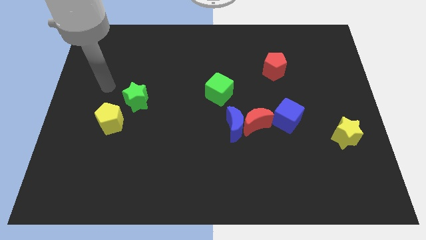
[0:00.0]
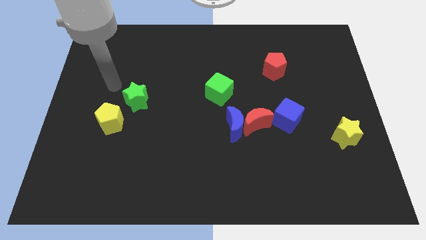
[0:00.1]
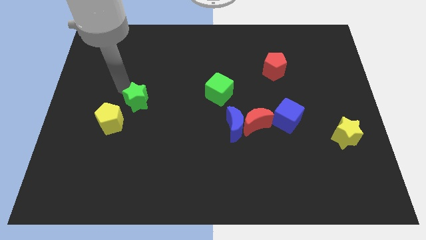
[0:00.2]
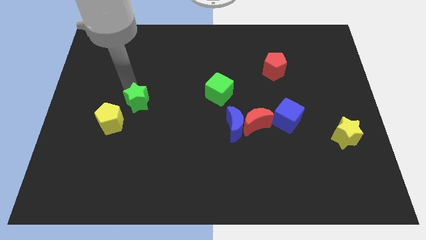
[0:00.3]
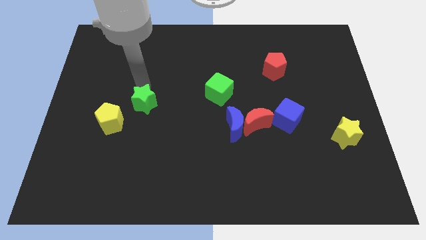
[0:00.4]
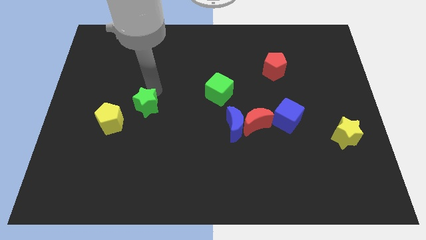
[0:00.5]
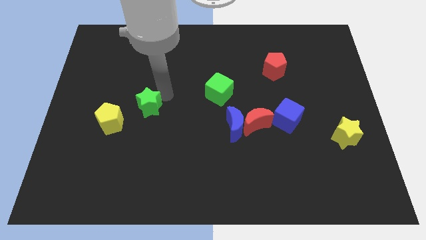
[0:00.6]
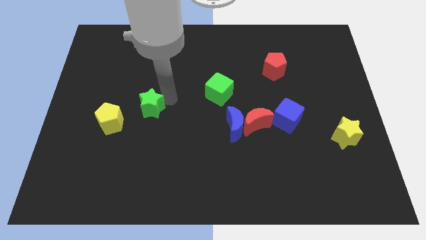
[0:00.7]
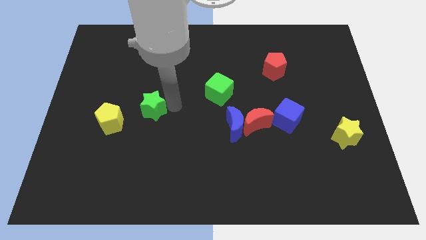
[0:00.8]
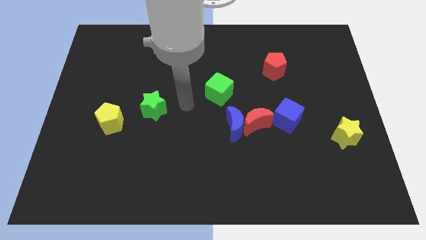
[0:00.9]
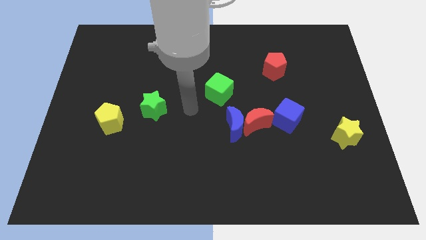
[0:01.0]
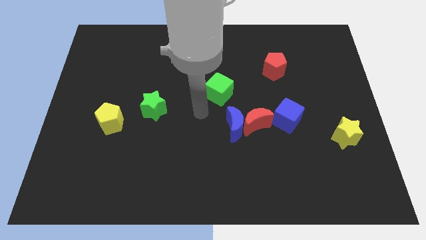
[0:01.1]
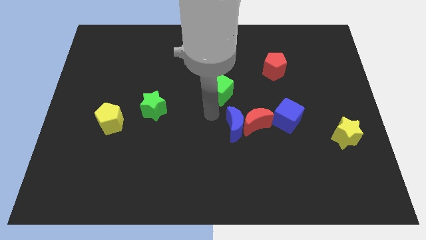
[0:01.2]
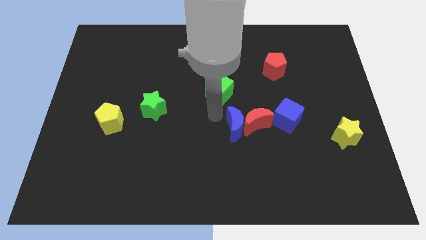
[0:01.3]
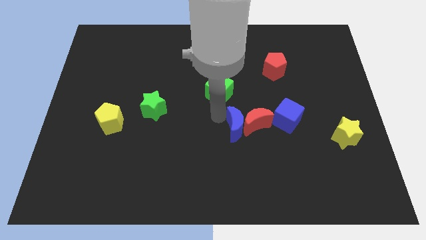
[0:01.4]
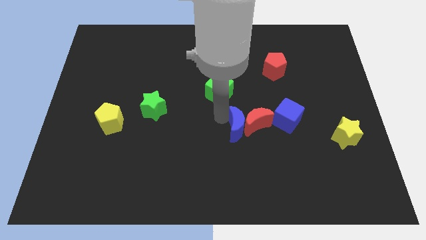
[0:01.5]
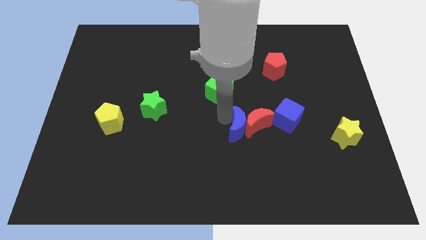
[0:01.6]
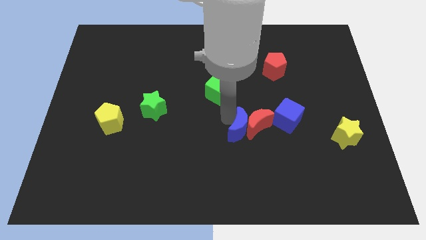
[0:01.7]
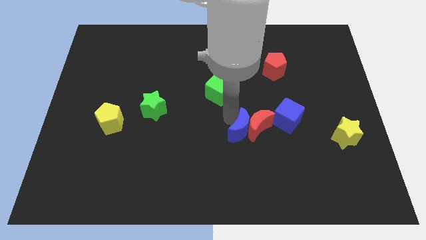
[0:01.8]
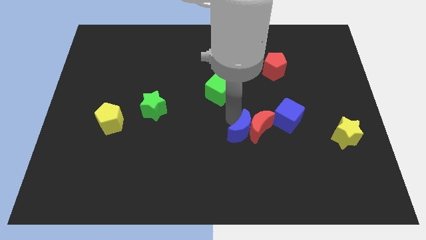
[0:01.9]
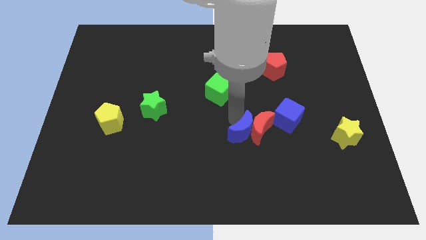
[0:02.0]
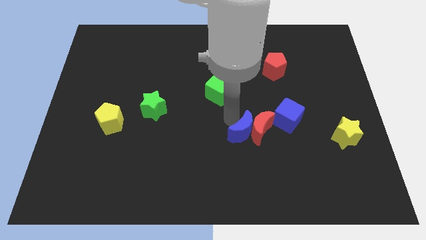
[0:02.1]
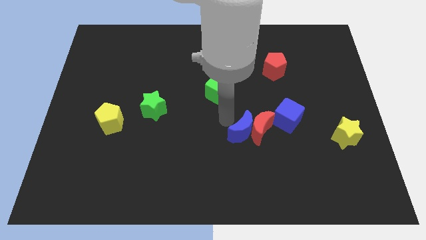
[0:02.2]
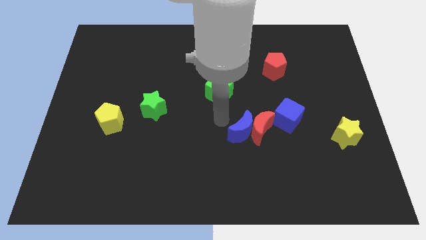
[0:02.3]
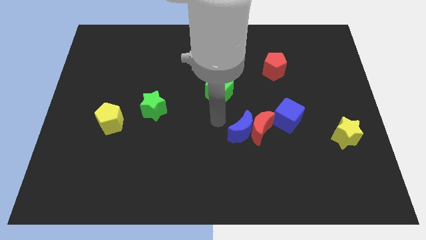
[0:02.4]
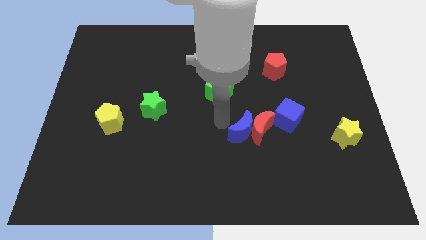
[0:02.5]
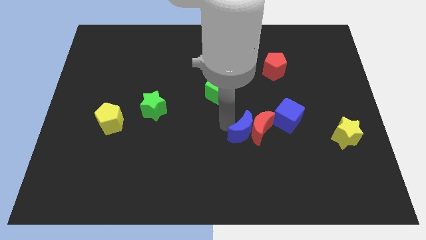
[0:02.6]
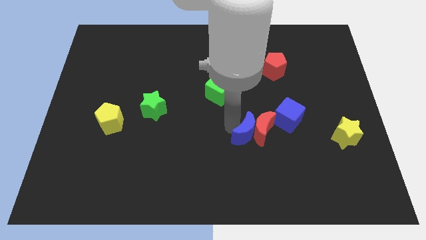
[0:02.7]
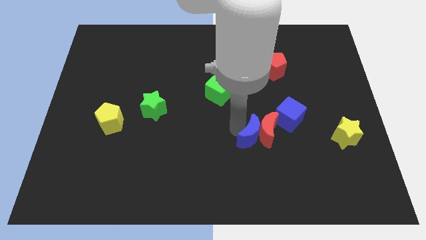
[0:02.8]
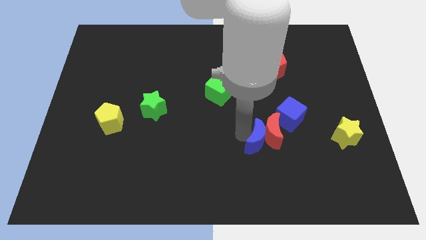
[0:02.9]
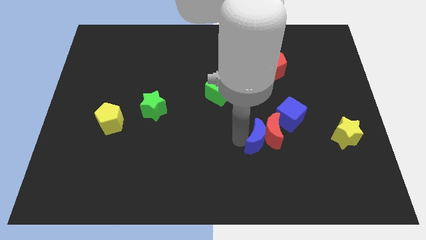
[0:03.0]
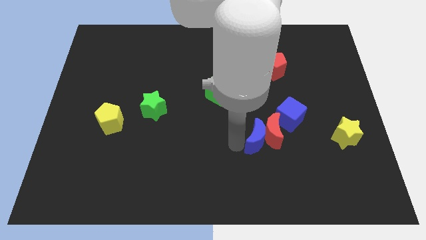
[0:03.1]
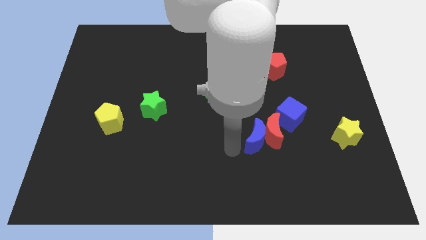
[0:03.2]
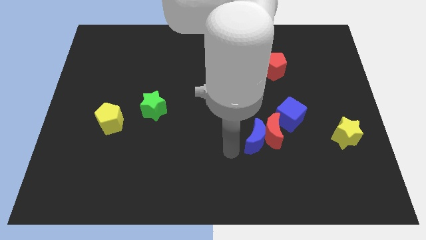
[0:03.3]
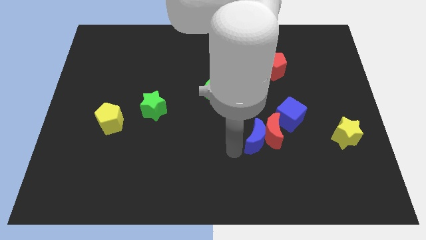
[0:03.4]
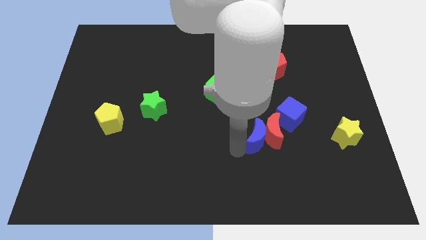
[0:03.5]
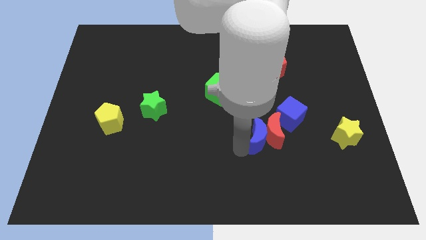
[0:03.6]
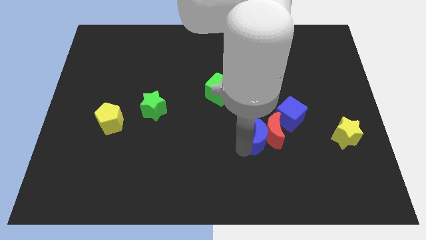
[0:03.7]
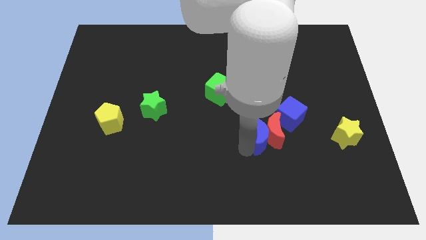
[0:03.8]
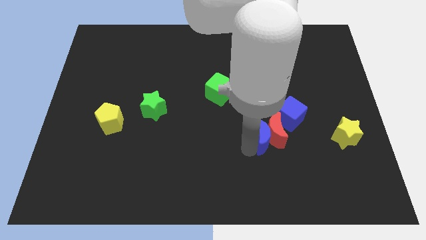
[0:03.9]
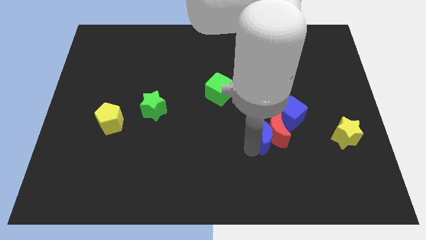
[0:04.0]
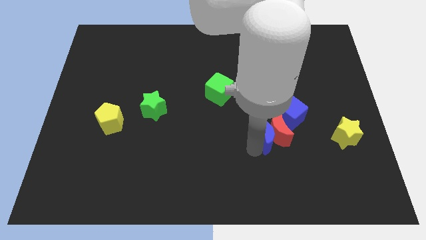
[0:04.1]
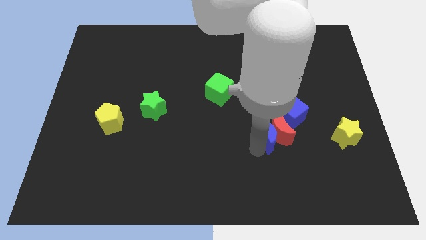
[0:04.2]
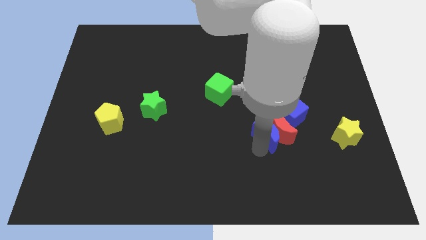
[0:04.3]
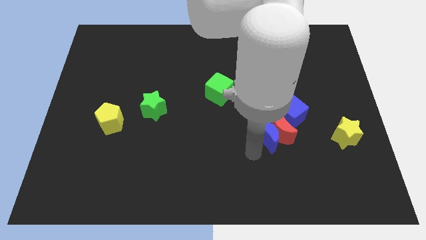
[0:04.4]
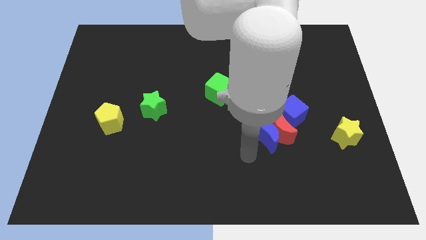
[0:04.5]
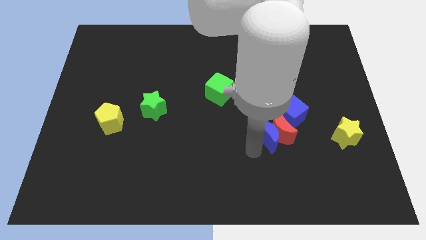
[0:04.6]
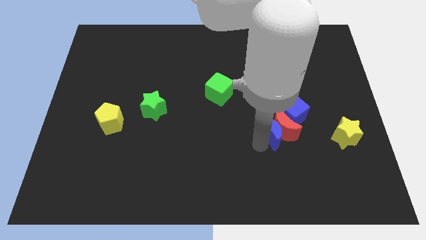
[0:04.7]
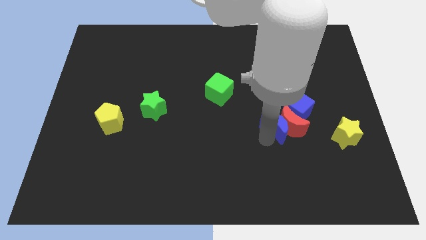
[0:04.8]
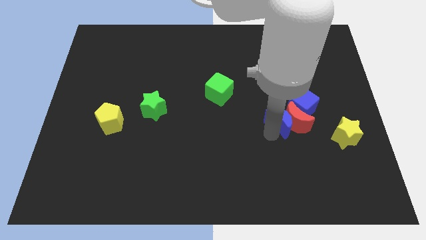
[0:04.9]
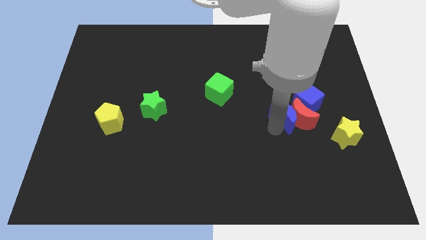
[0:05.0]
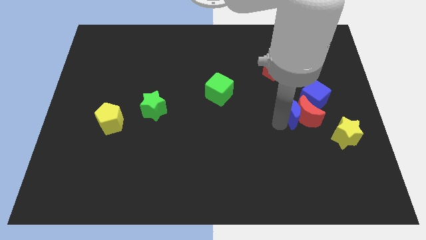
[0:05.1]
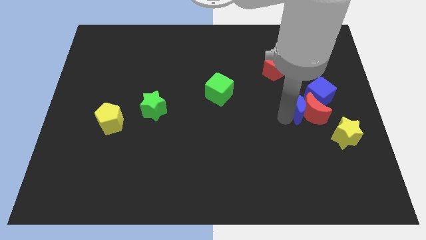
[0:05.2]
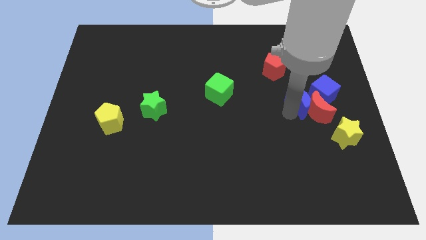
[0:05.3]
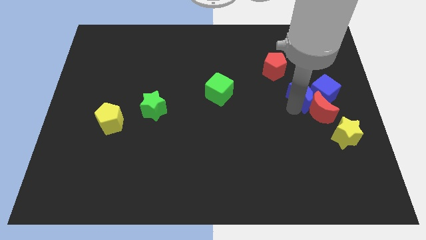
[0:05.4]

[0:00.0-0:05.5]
move the blue moon close to the blue cube

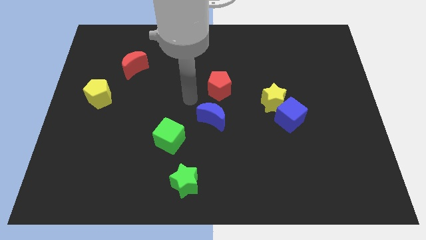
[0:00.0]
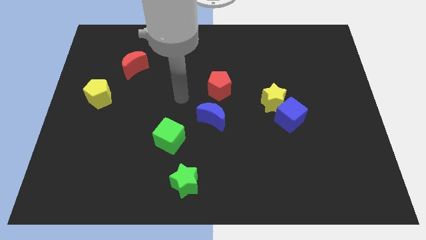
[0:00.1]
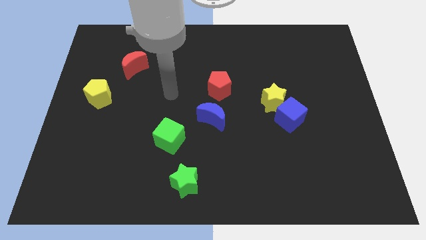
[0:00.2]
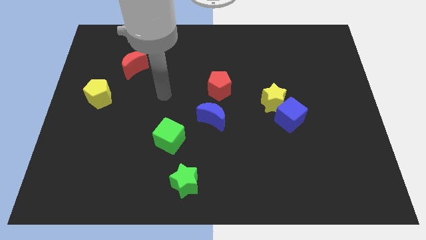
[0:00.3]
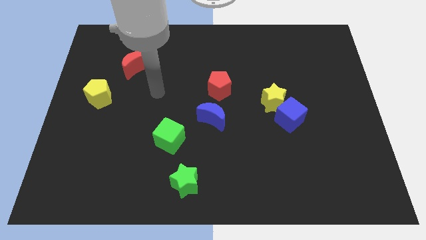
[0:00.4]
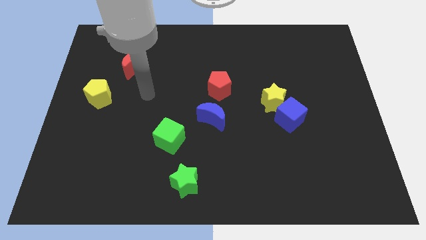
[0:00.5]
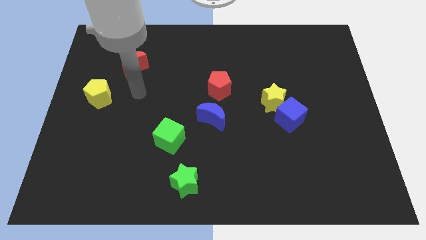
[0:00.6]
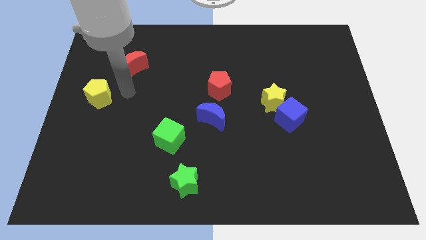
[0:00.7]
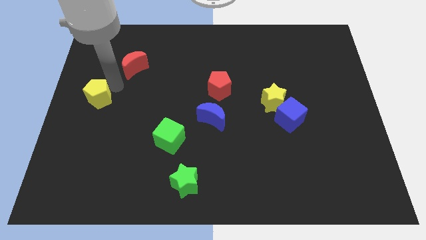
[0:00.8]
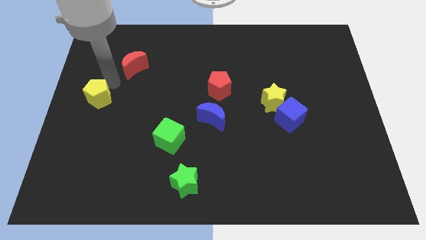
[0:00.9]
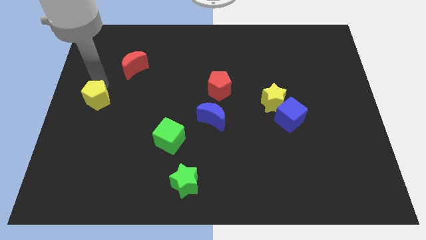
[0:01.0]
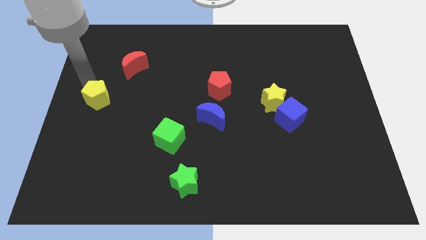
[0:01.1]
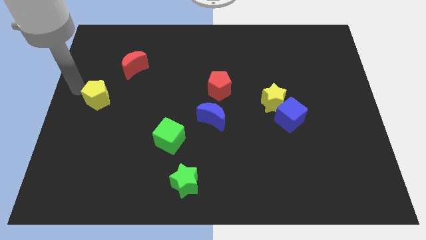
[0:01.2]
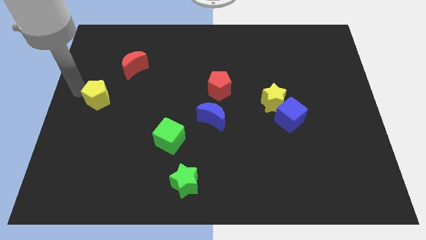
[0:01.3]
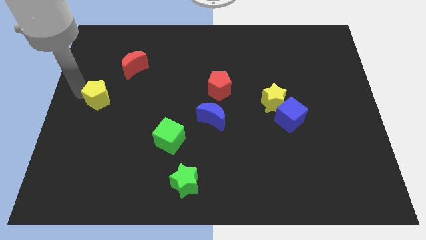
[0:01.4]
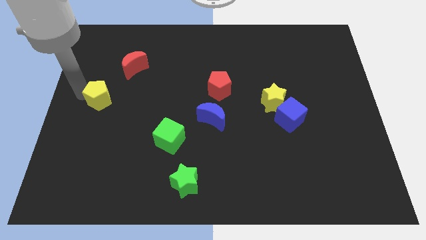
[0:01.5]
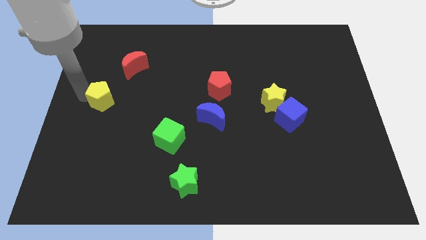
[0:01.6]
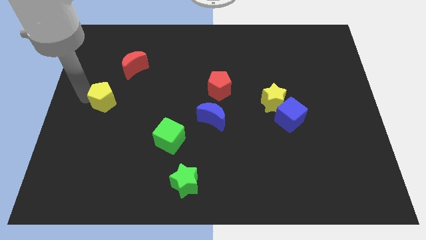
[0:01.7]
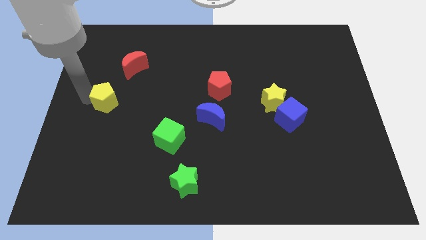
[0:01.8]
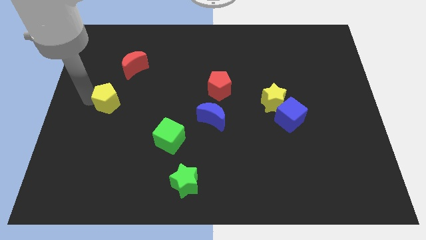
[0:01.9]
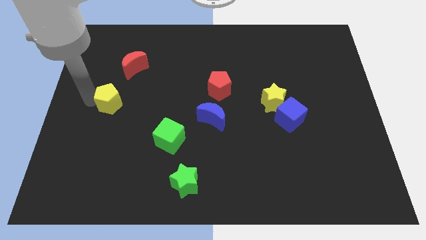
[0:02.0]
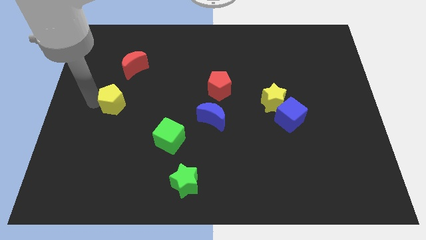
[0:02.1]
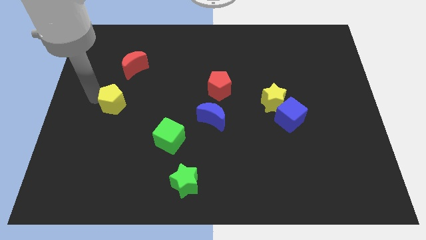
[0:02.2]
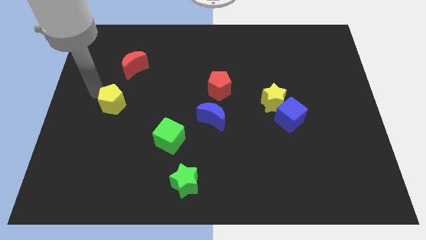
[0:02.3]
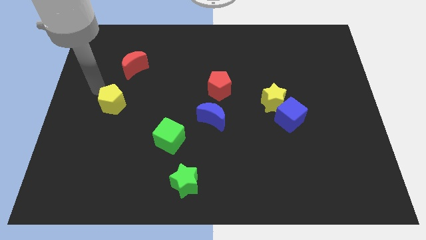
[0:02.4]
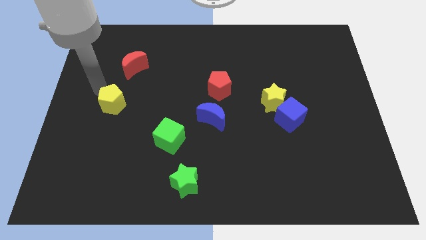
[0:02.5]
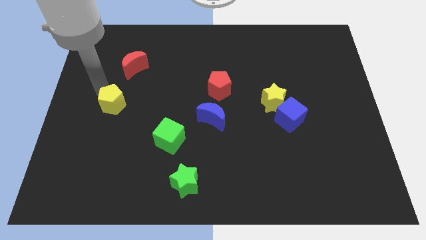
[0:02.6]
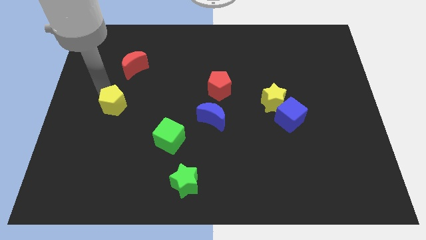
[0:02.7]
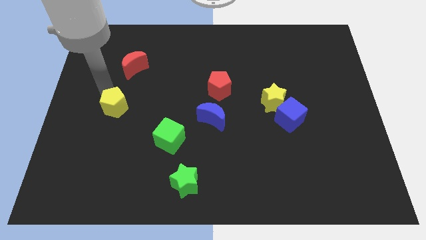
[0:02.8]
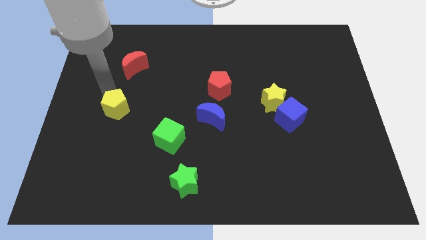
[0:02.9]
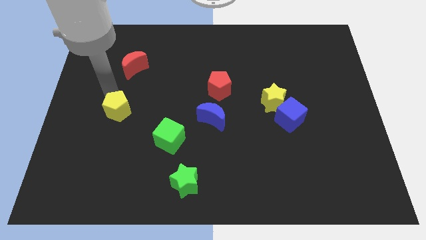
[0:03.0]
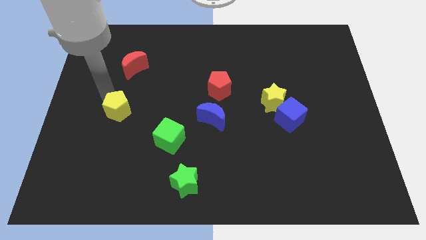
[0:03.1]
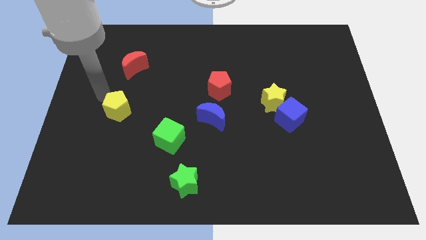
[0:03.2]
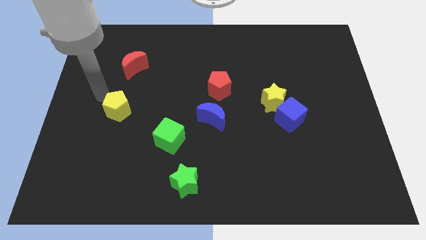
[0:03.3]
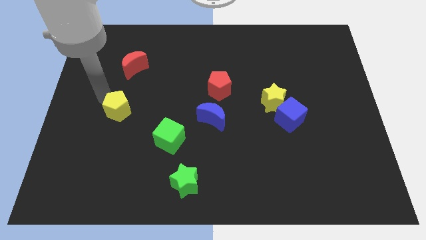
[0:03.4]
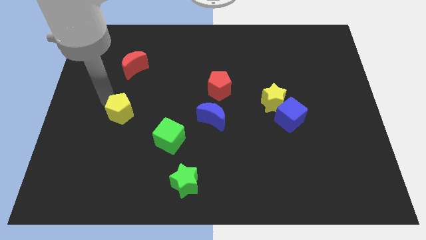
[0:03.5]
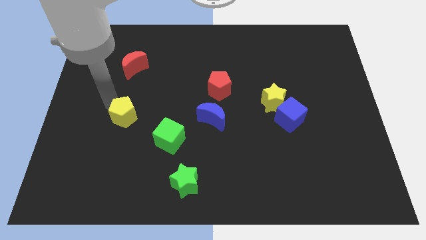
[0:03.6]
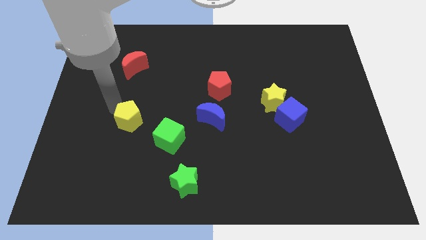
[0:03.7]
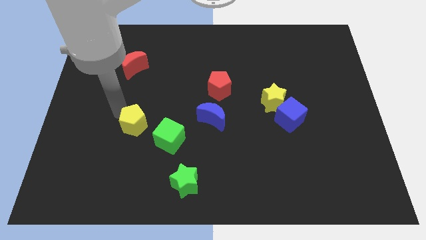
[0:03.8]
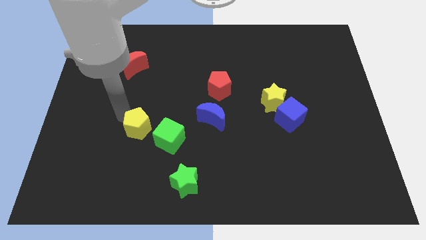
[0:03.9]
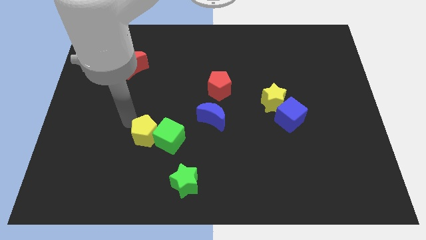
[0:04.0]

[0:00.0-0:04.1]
put the yellow pentagon to the green cube
